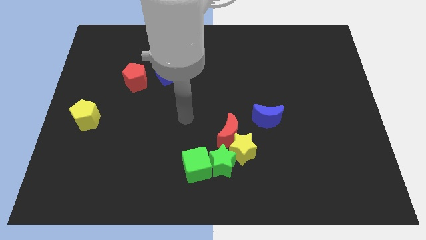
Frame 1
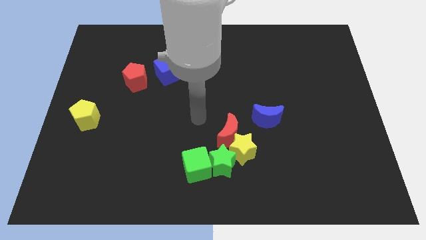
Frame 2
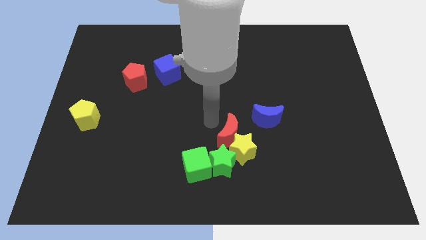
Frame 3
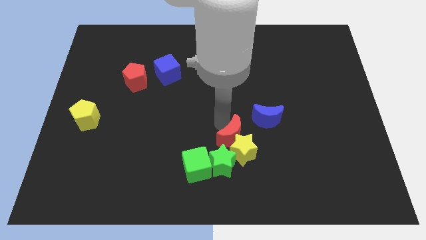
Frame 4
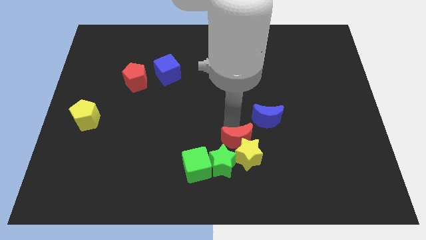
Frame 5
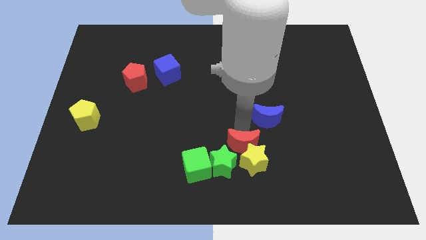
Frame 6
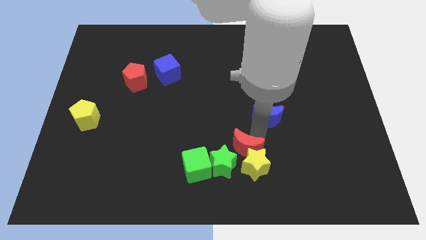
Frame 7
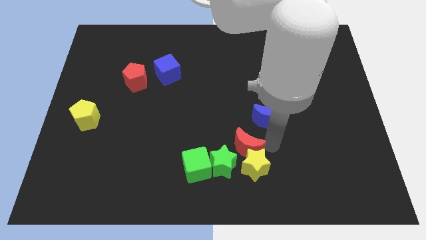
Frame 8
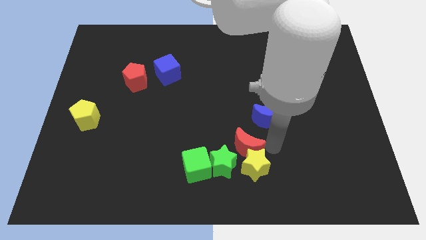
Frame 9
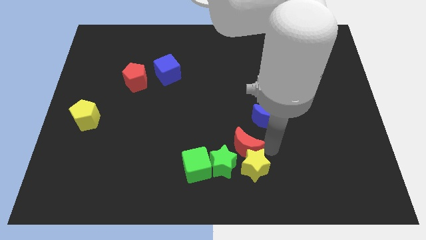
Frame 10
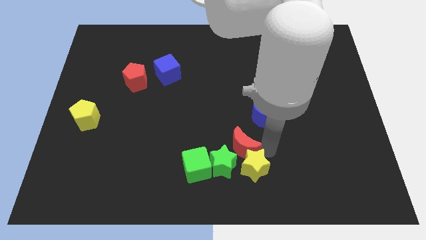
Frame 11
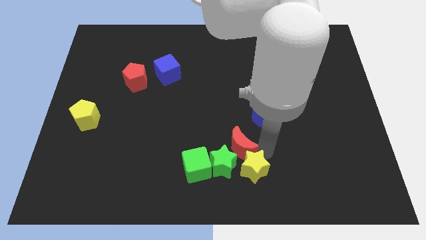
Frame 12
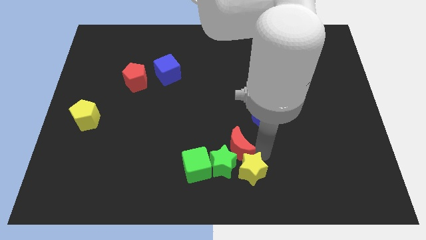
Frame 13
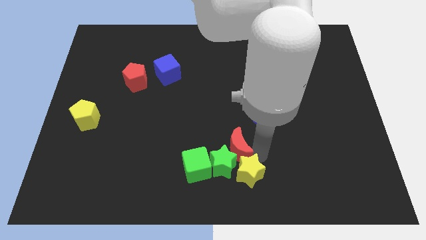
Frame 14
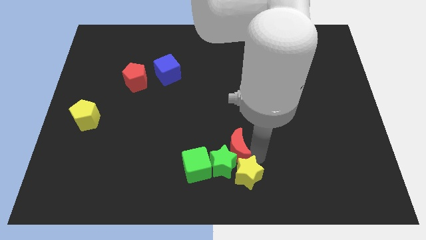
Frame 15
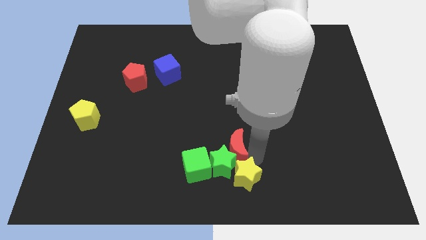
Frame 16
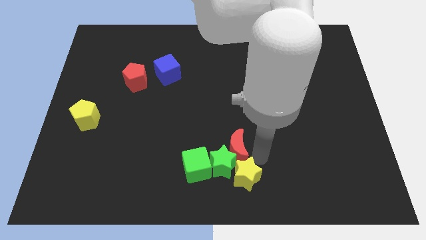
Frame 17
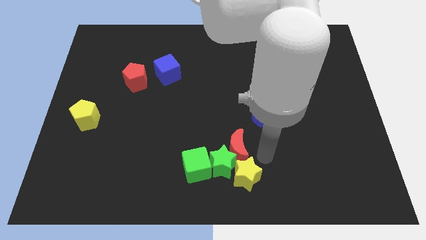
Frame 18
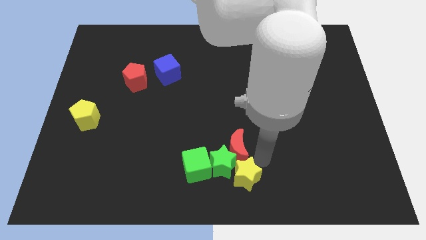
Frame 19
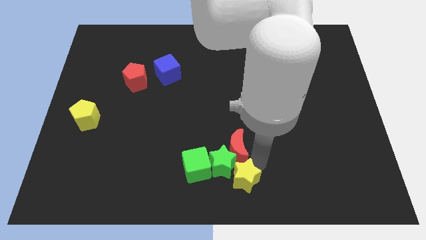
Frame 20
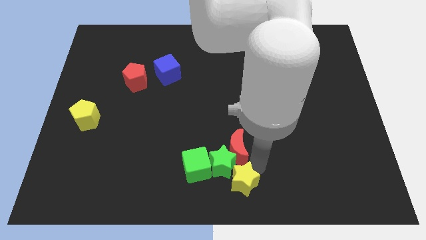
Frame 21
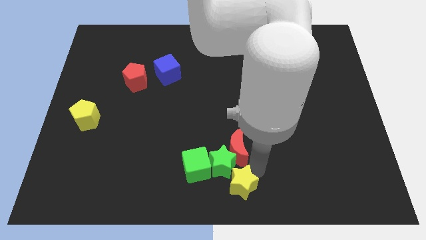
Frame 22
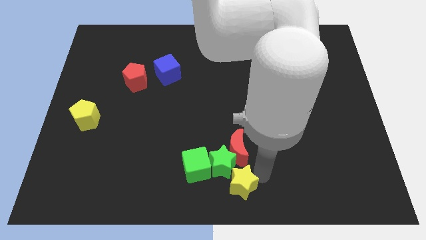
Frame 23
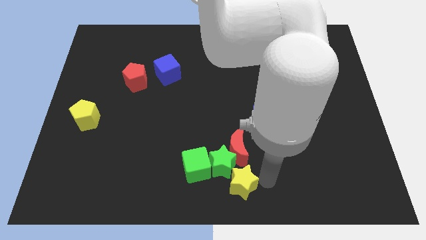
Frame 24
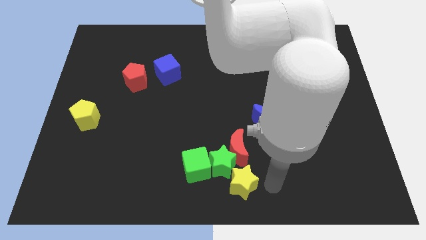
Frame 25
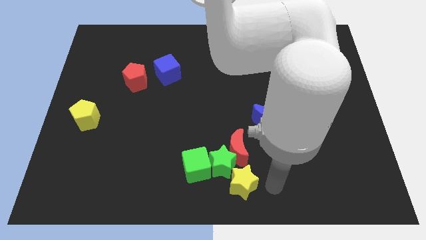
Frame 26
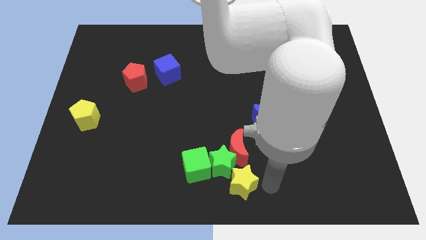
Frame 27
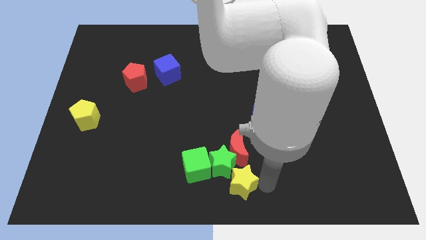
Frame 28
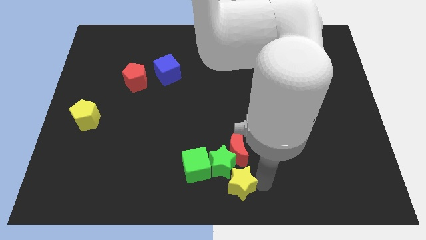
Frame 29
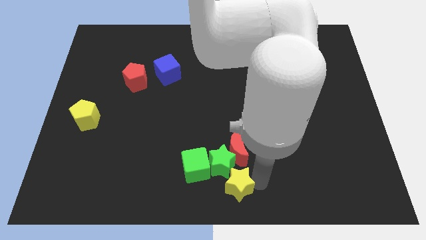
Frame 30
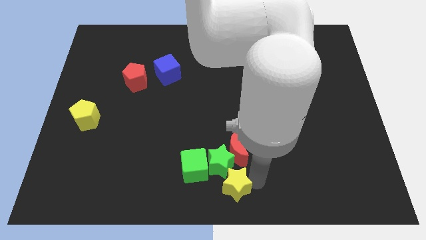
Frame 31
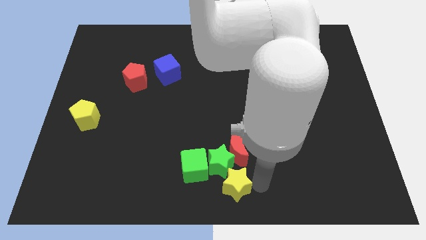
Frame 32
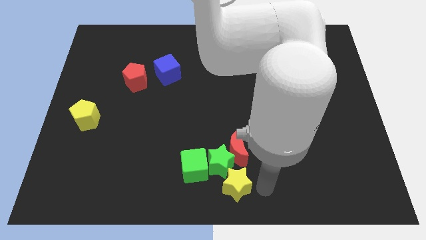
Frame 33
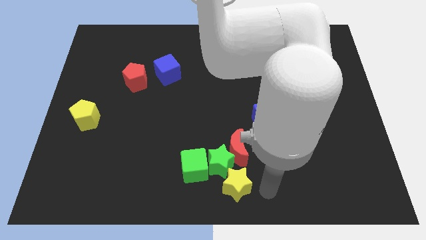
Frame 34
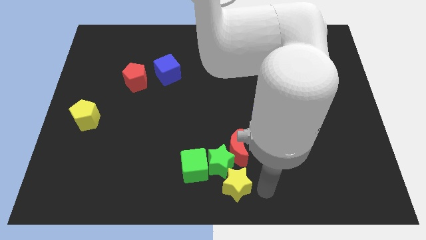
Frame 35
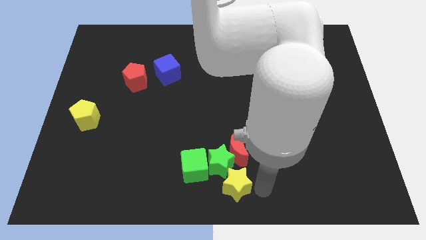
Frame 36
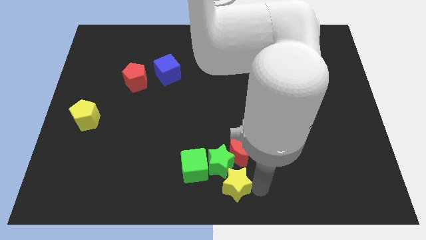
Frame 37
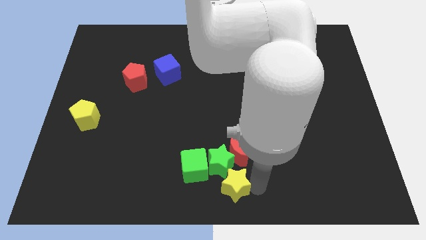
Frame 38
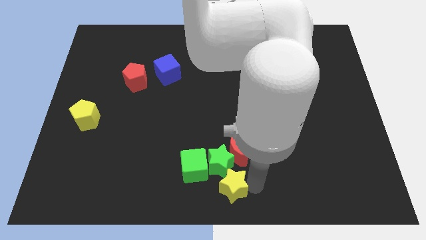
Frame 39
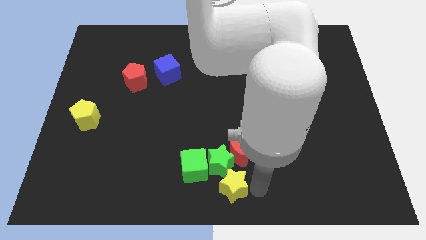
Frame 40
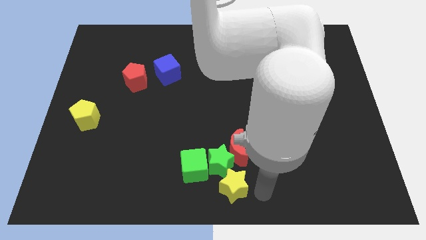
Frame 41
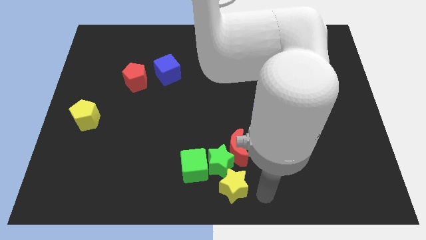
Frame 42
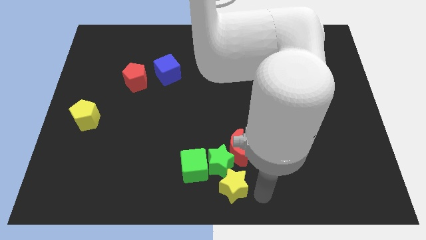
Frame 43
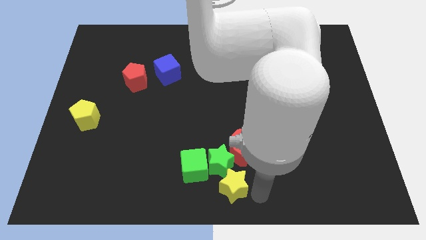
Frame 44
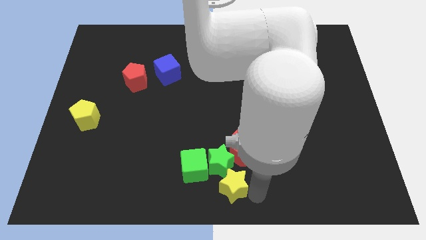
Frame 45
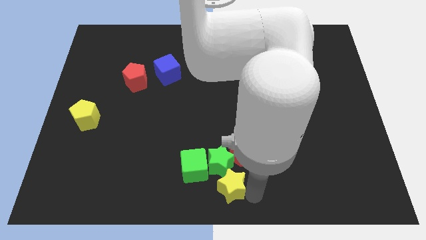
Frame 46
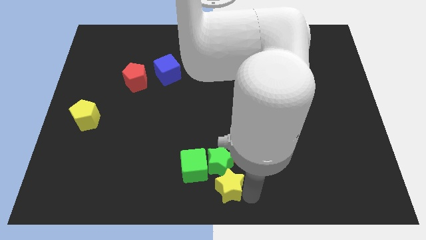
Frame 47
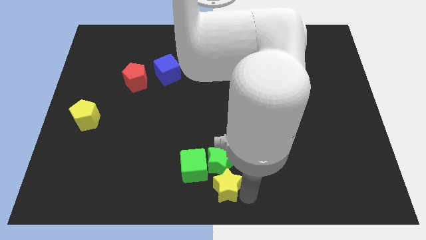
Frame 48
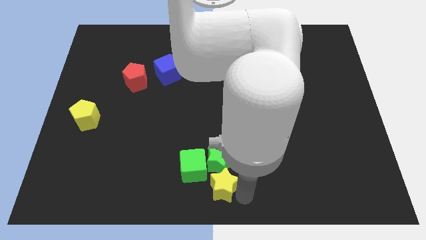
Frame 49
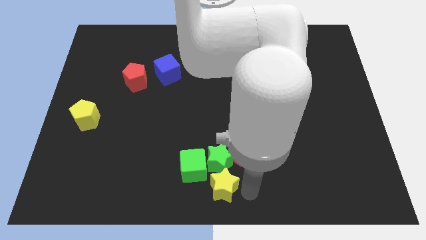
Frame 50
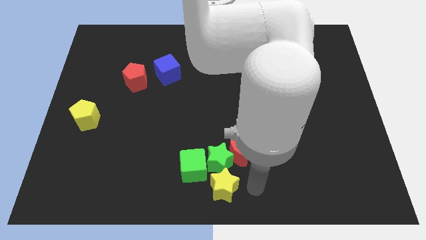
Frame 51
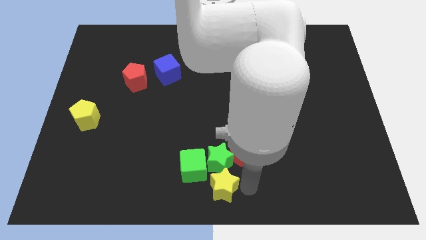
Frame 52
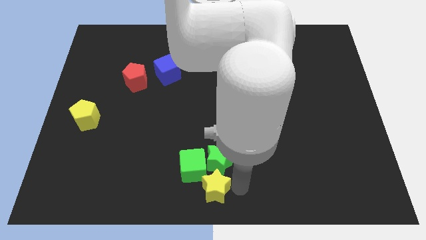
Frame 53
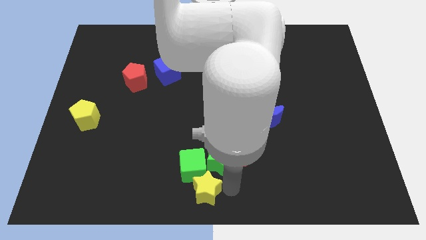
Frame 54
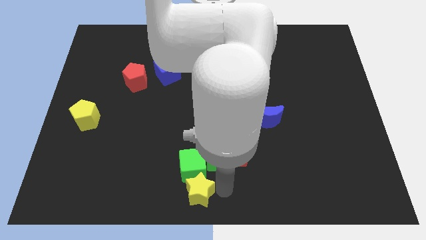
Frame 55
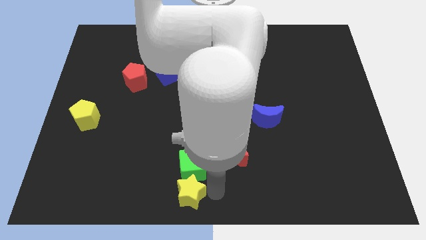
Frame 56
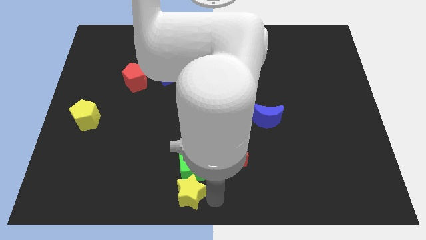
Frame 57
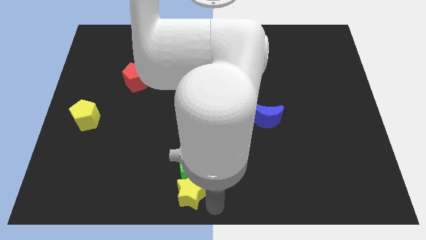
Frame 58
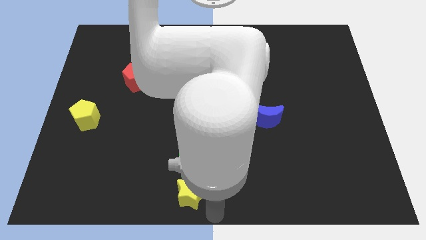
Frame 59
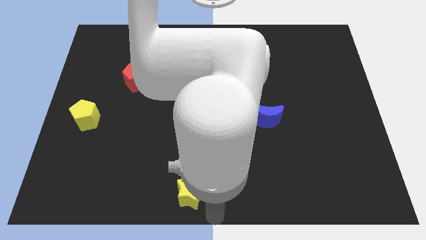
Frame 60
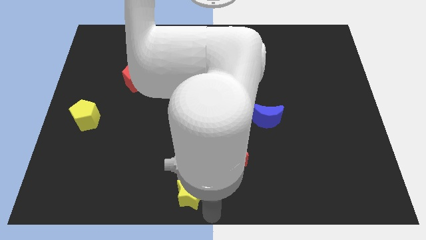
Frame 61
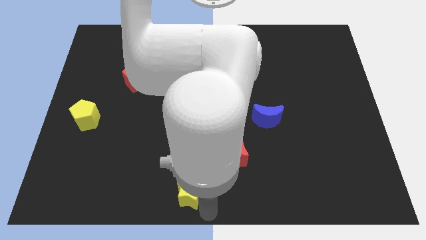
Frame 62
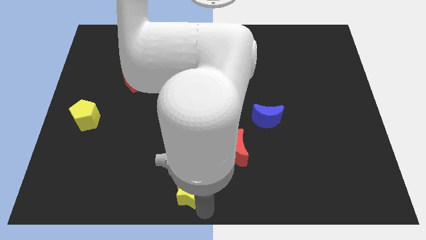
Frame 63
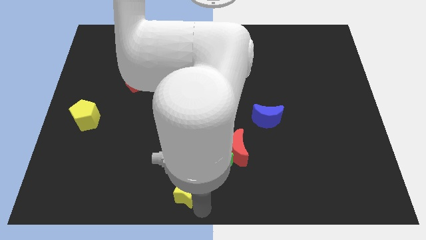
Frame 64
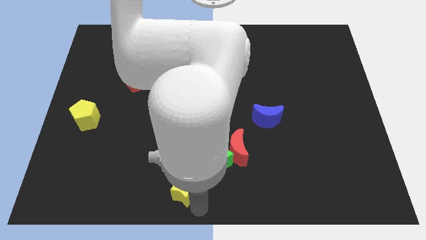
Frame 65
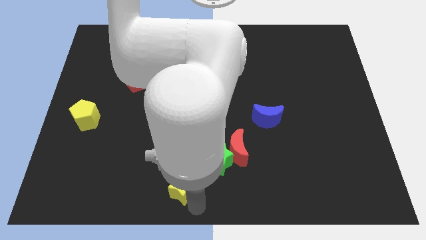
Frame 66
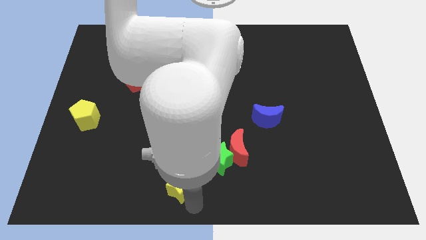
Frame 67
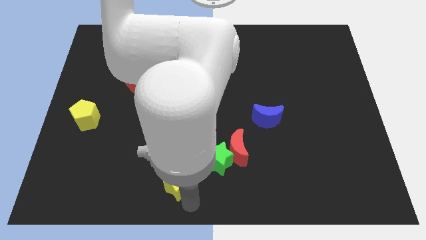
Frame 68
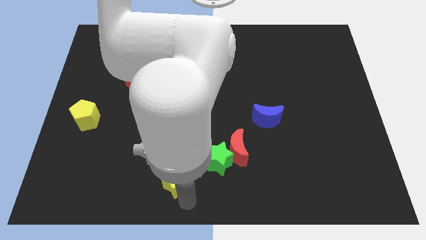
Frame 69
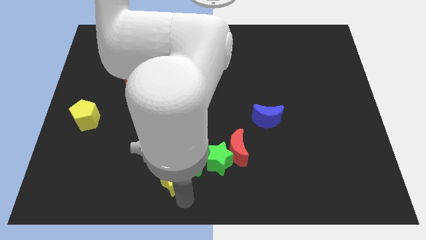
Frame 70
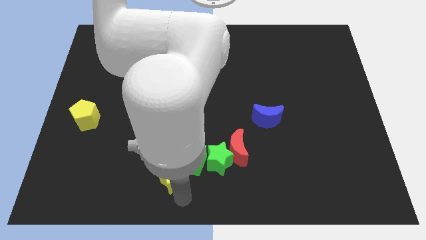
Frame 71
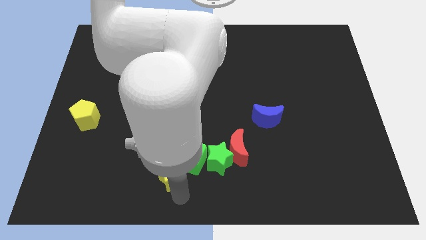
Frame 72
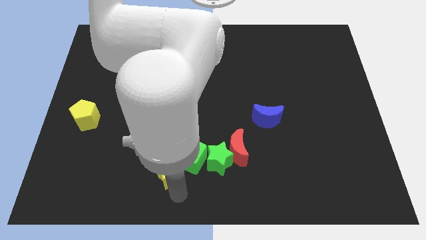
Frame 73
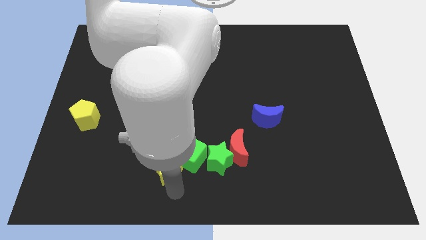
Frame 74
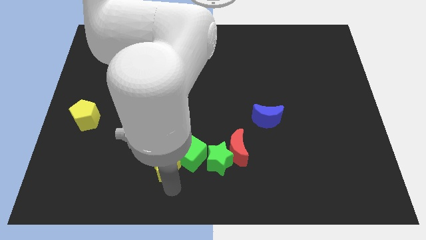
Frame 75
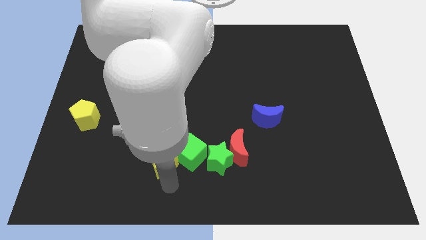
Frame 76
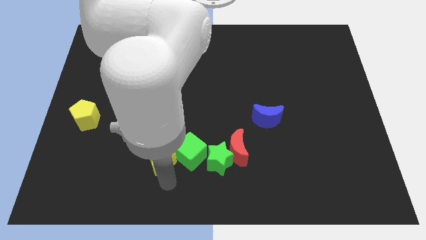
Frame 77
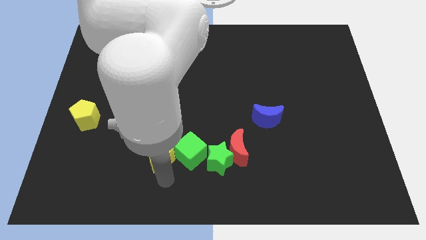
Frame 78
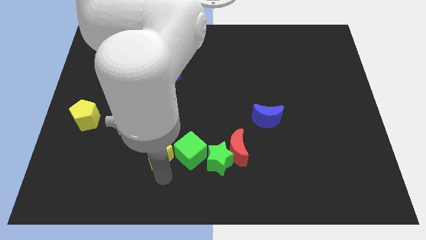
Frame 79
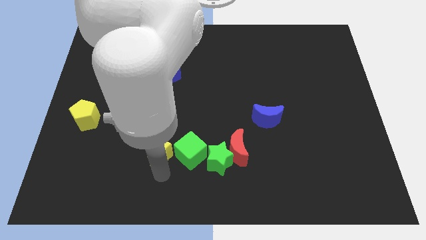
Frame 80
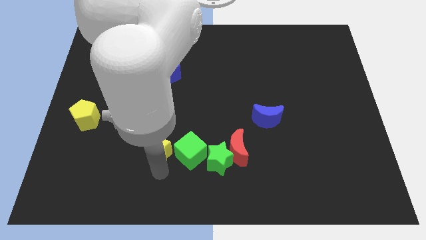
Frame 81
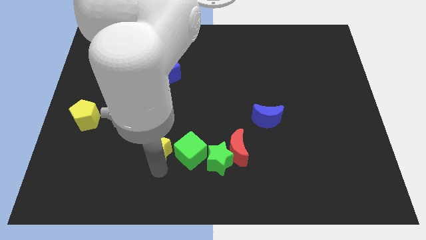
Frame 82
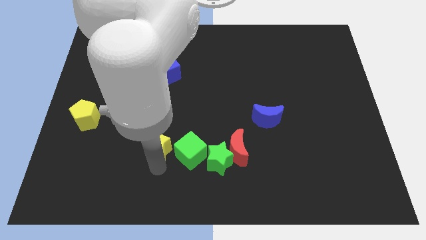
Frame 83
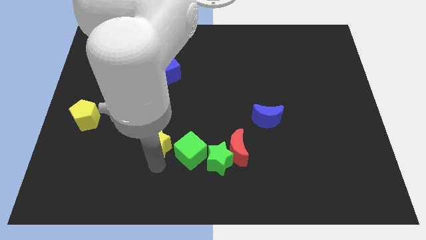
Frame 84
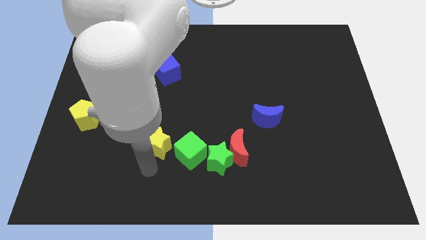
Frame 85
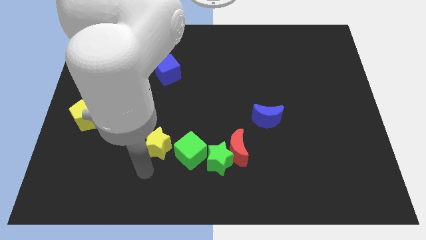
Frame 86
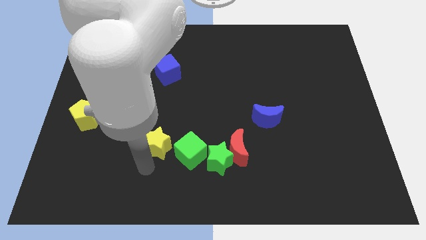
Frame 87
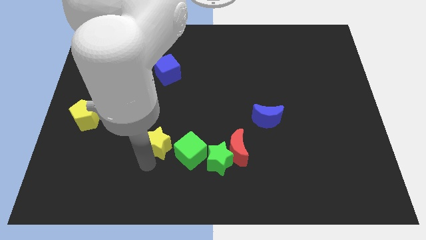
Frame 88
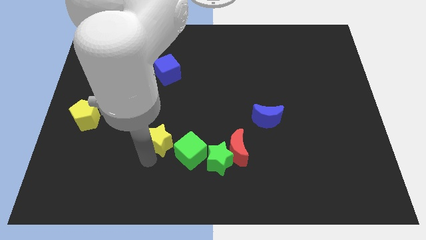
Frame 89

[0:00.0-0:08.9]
slide the yellow star upwards and to the left somewhat
